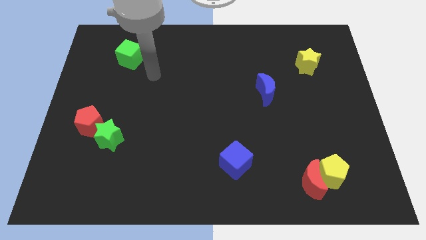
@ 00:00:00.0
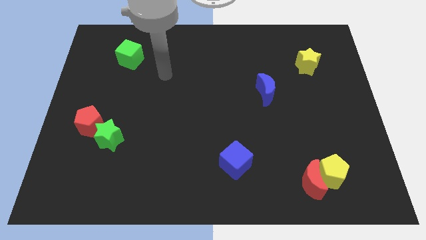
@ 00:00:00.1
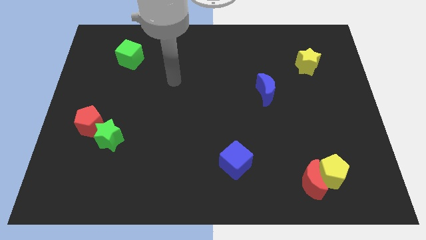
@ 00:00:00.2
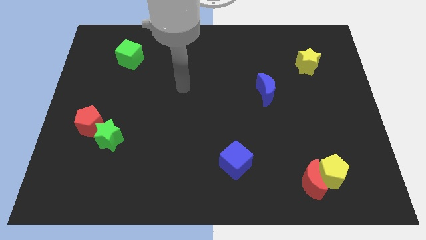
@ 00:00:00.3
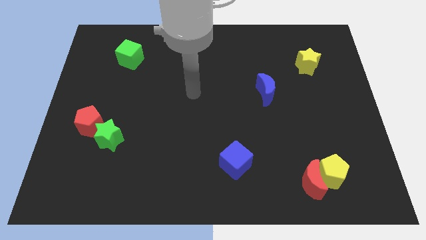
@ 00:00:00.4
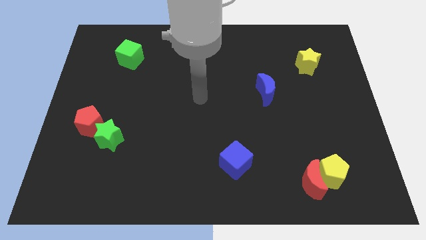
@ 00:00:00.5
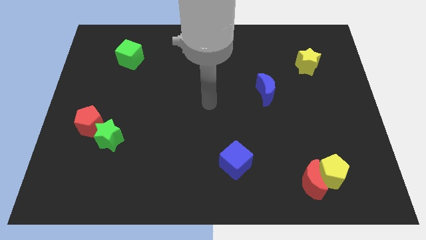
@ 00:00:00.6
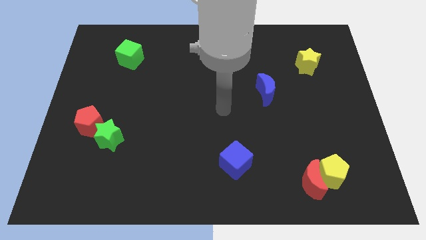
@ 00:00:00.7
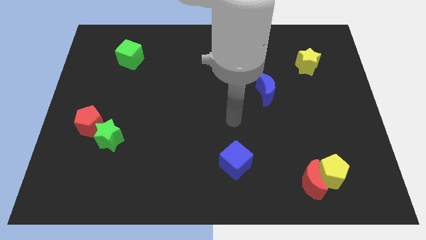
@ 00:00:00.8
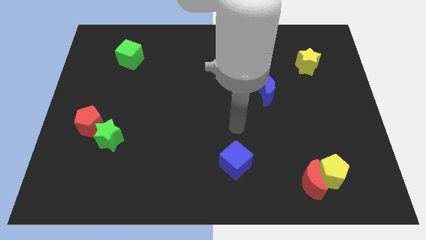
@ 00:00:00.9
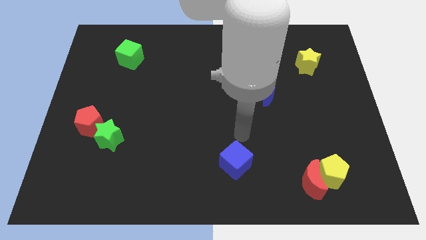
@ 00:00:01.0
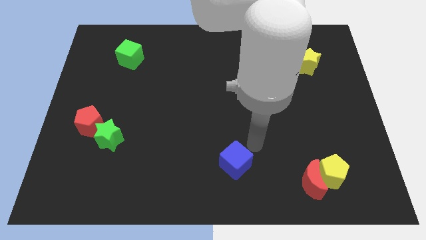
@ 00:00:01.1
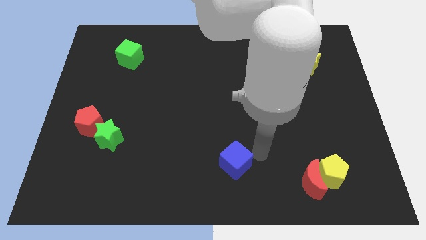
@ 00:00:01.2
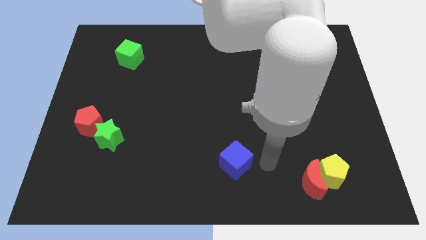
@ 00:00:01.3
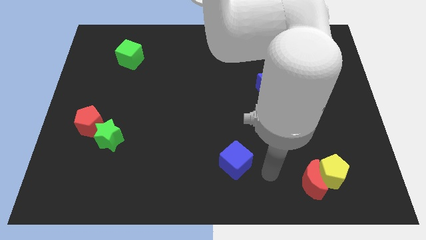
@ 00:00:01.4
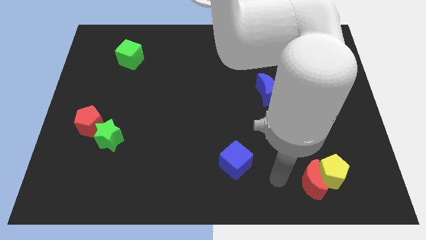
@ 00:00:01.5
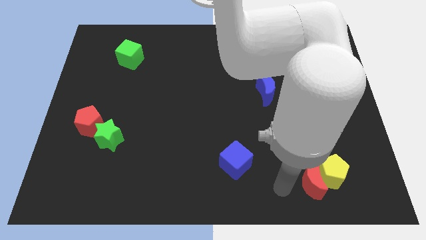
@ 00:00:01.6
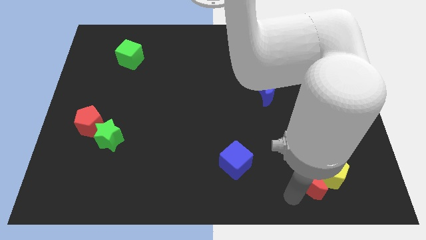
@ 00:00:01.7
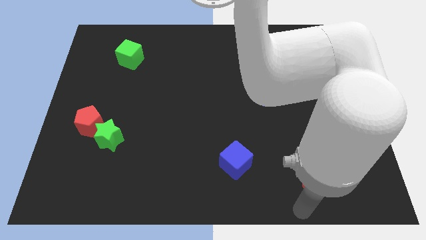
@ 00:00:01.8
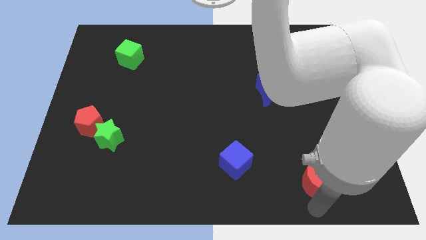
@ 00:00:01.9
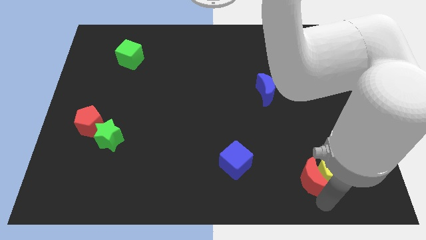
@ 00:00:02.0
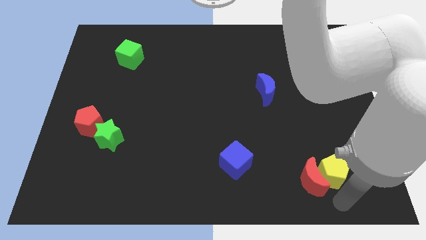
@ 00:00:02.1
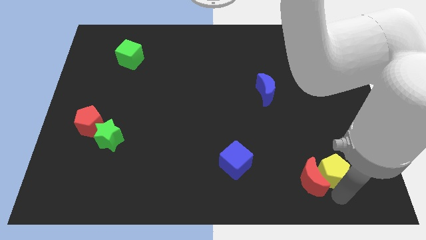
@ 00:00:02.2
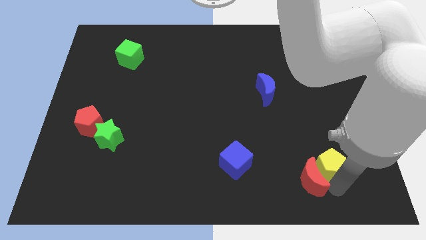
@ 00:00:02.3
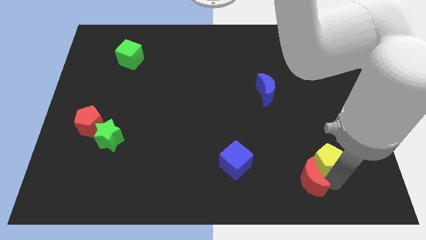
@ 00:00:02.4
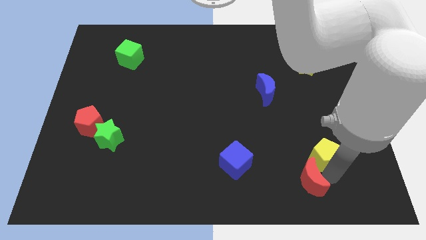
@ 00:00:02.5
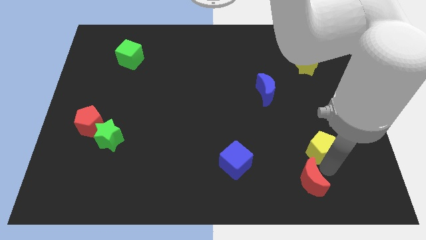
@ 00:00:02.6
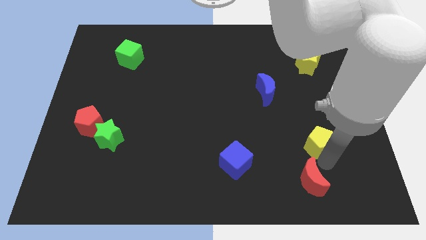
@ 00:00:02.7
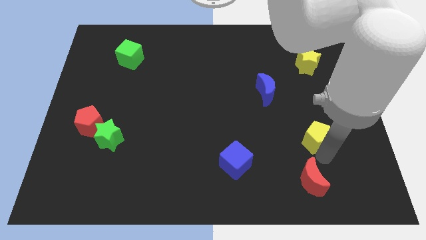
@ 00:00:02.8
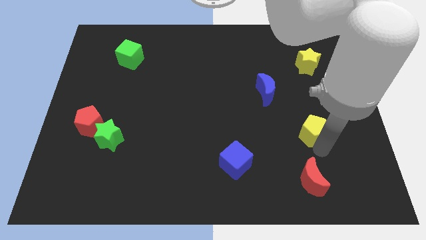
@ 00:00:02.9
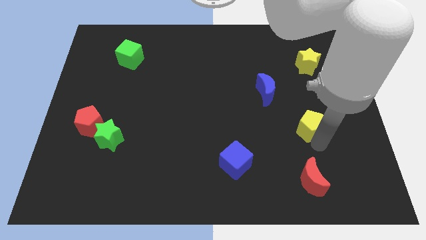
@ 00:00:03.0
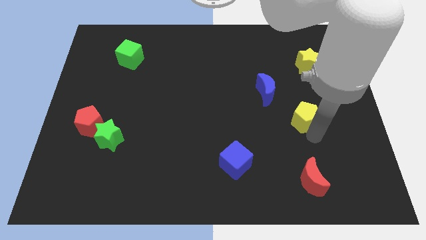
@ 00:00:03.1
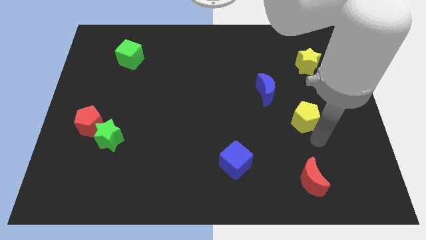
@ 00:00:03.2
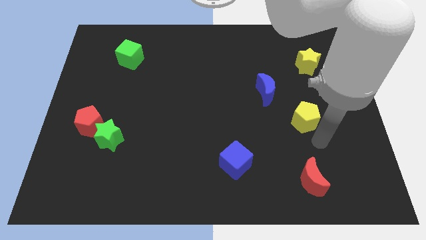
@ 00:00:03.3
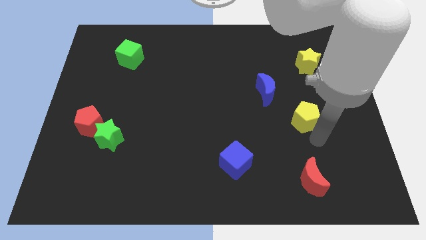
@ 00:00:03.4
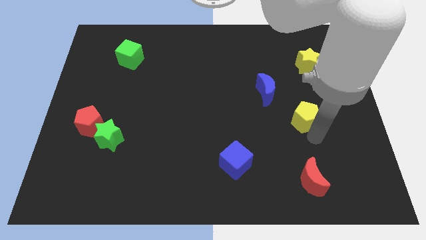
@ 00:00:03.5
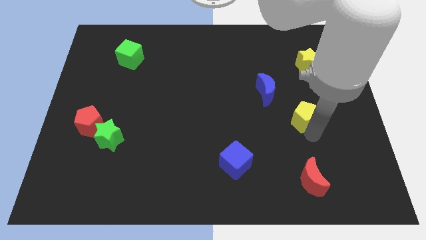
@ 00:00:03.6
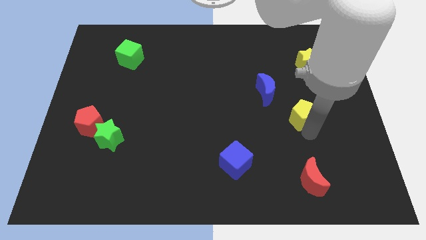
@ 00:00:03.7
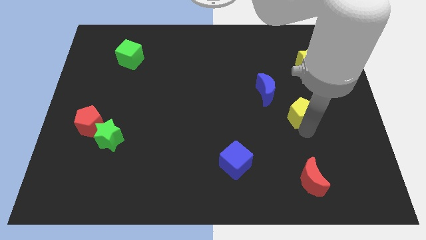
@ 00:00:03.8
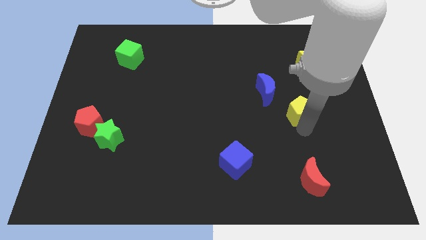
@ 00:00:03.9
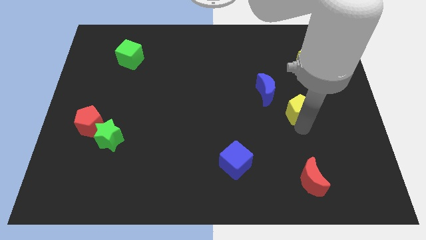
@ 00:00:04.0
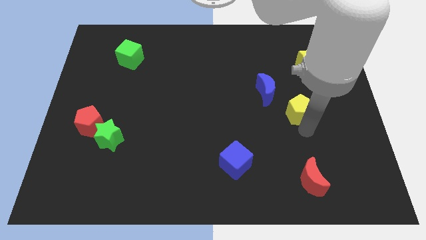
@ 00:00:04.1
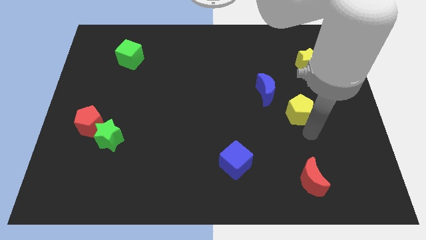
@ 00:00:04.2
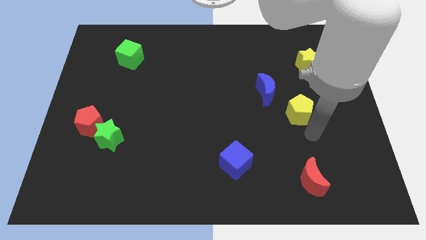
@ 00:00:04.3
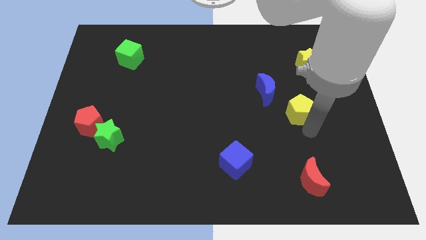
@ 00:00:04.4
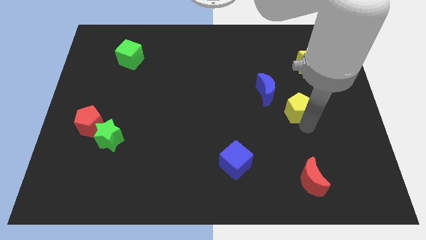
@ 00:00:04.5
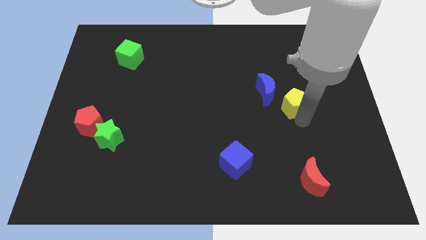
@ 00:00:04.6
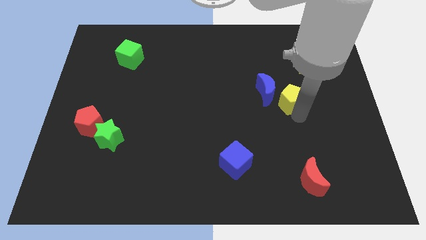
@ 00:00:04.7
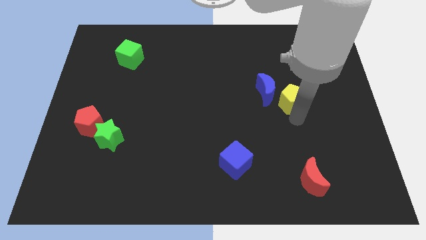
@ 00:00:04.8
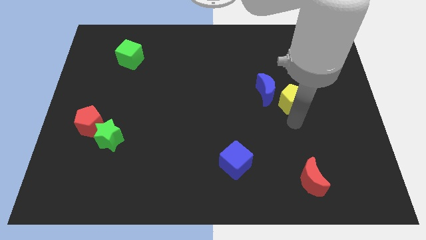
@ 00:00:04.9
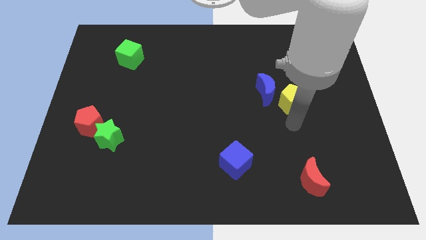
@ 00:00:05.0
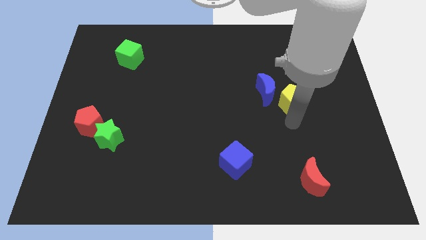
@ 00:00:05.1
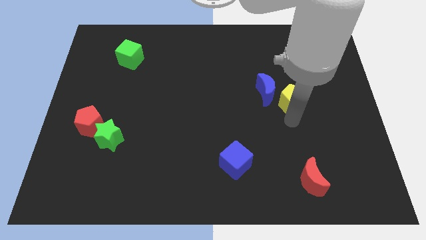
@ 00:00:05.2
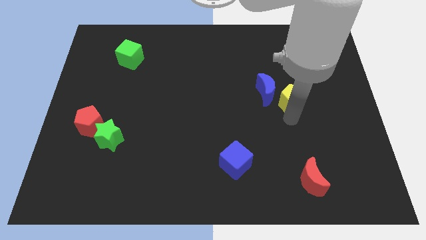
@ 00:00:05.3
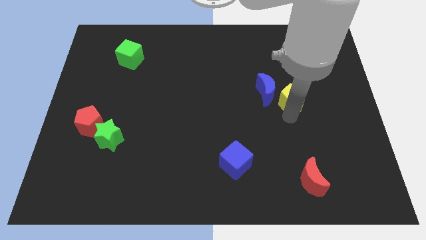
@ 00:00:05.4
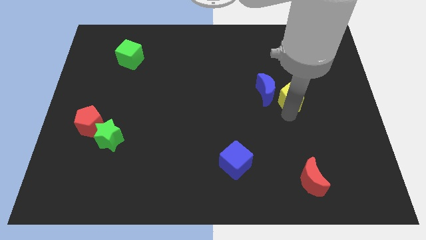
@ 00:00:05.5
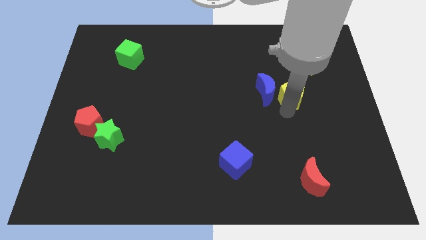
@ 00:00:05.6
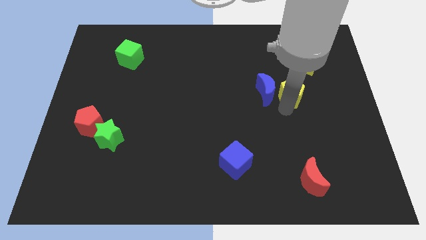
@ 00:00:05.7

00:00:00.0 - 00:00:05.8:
move the yellow pentagon diagonally up and to the right of the blue moon

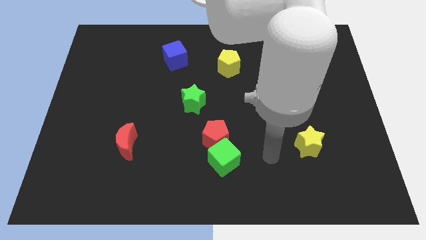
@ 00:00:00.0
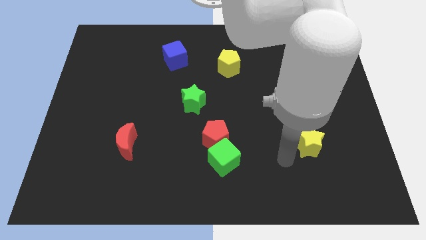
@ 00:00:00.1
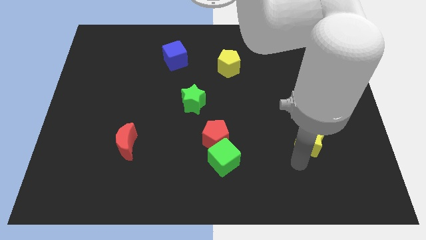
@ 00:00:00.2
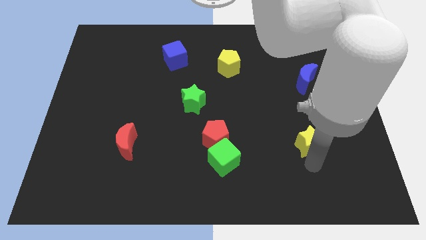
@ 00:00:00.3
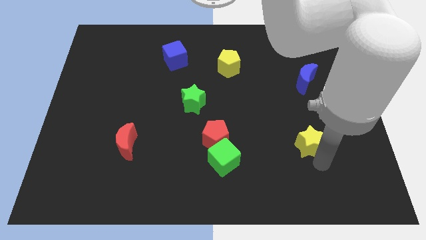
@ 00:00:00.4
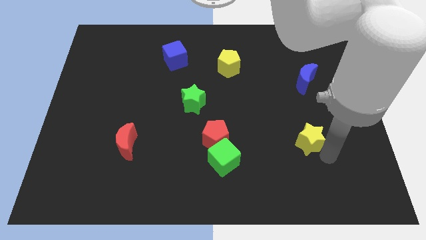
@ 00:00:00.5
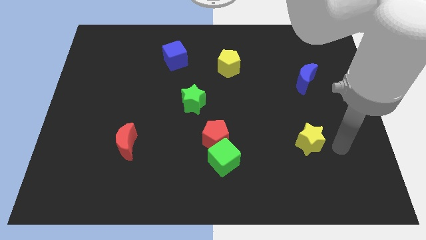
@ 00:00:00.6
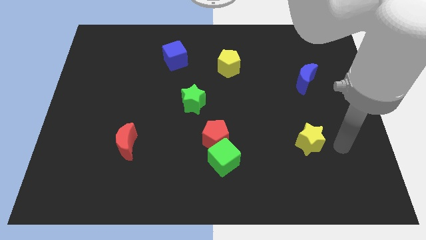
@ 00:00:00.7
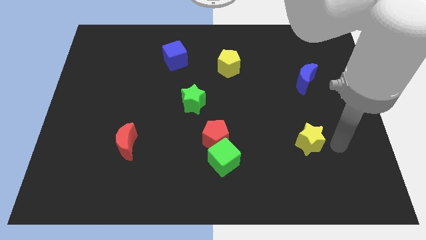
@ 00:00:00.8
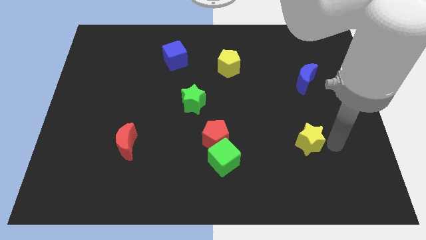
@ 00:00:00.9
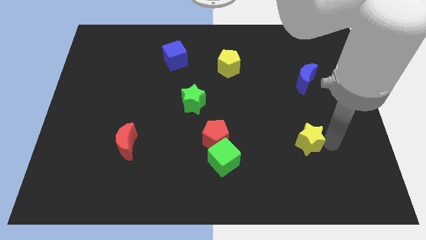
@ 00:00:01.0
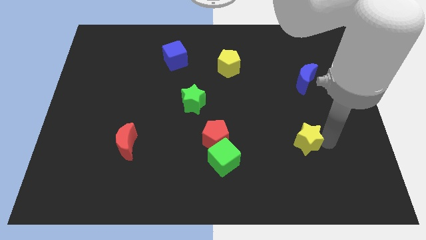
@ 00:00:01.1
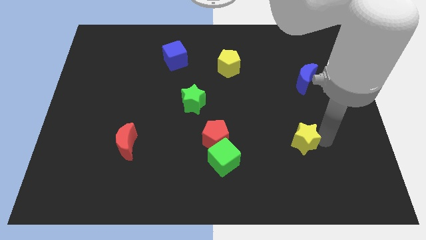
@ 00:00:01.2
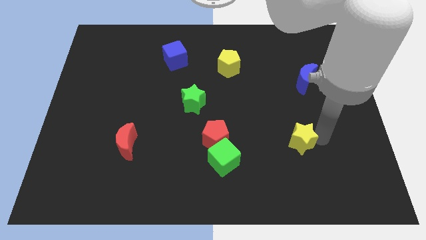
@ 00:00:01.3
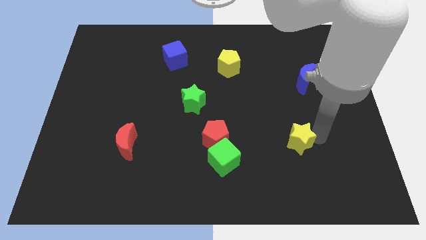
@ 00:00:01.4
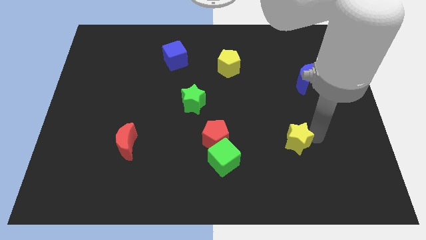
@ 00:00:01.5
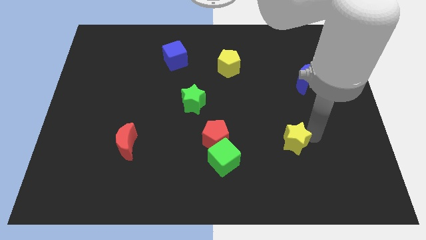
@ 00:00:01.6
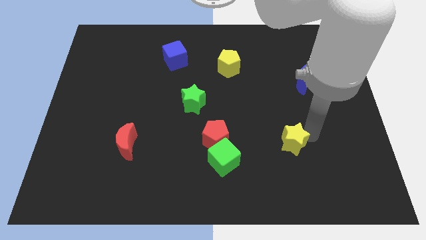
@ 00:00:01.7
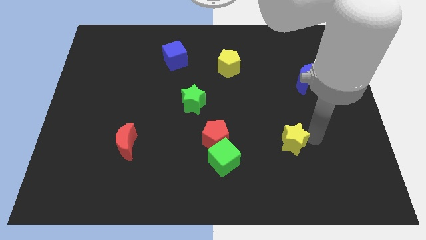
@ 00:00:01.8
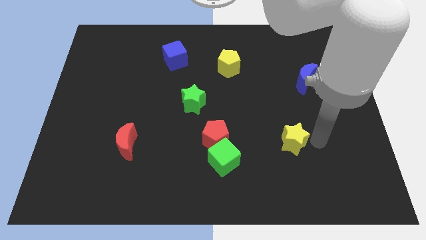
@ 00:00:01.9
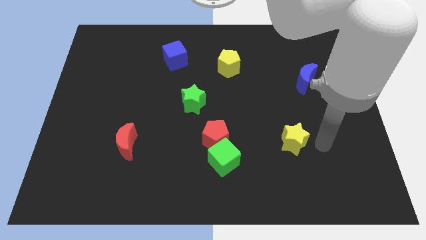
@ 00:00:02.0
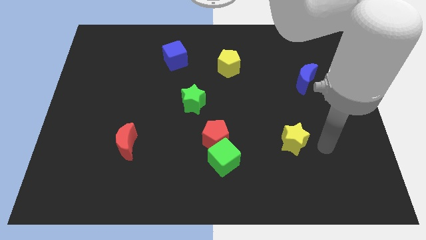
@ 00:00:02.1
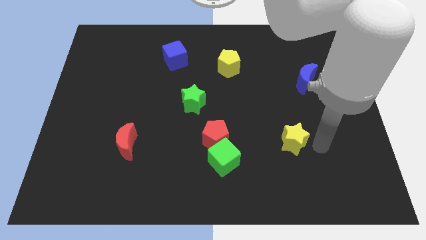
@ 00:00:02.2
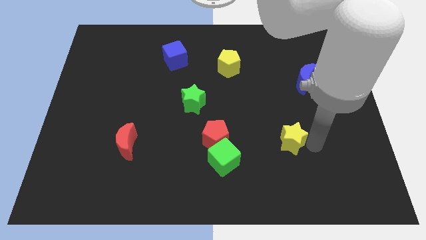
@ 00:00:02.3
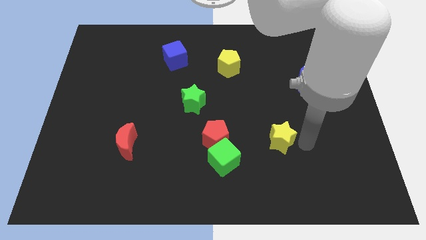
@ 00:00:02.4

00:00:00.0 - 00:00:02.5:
push the yellow star to the right of the red pentagon
